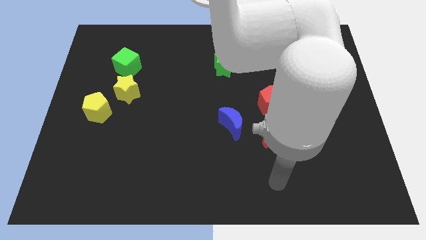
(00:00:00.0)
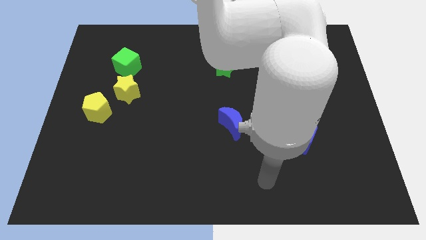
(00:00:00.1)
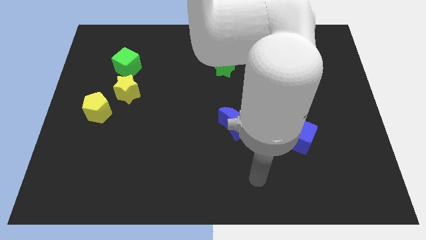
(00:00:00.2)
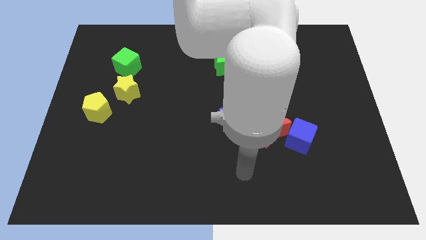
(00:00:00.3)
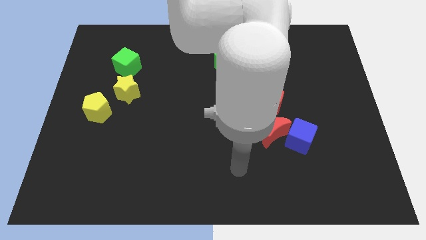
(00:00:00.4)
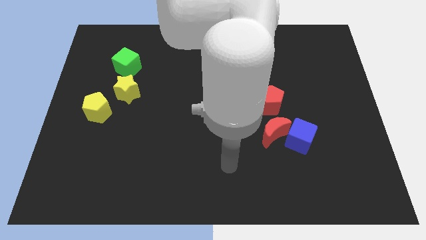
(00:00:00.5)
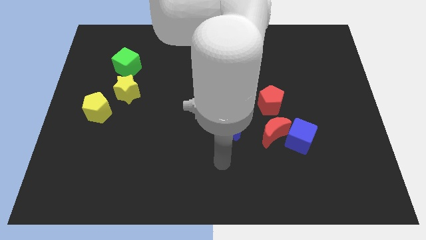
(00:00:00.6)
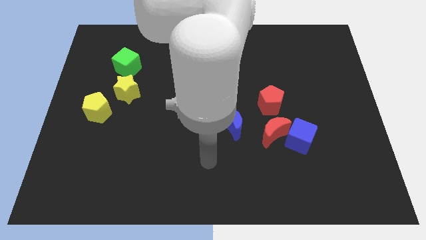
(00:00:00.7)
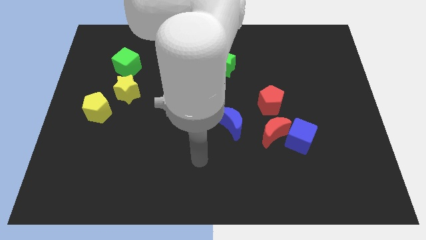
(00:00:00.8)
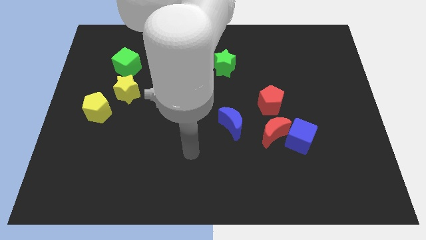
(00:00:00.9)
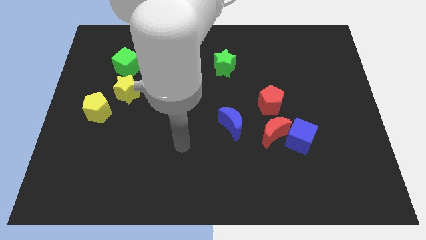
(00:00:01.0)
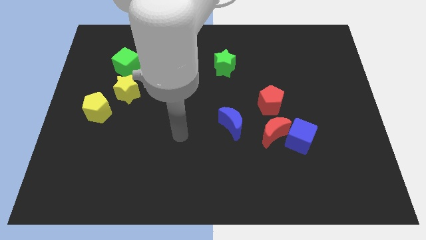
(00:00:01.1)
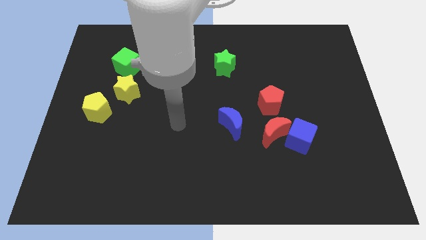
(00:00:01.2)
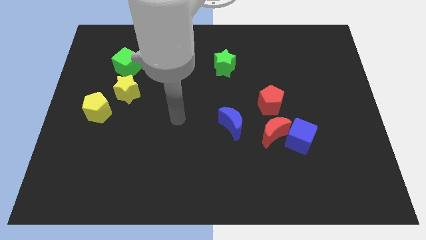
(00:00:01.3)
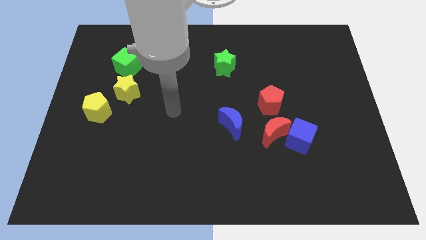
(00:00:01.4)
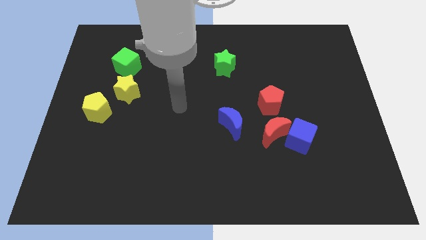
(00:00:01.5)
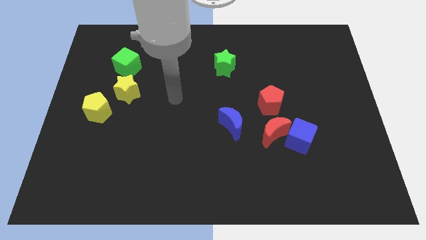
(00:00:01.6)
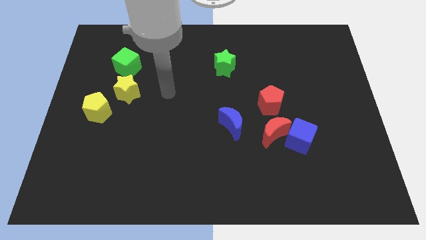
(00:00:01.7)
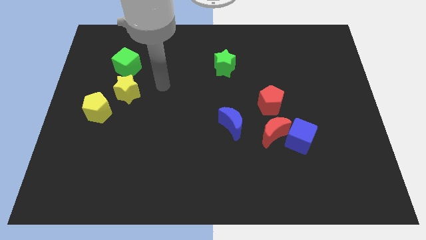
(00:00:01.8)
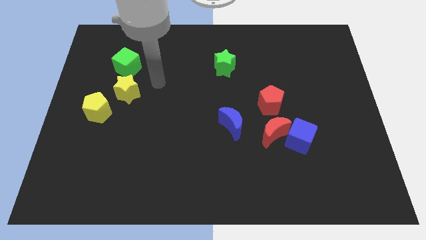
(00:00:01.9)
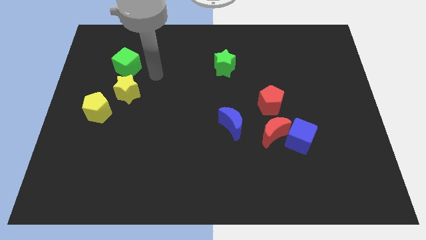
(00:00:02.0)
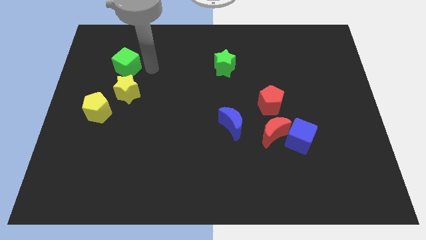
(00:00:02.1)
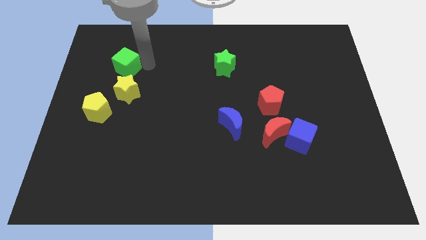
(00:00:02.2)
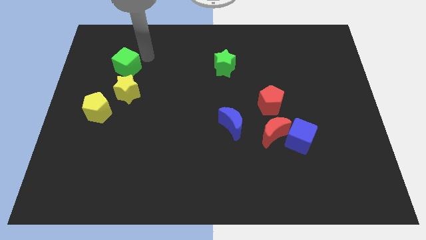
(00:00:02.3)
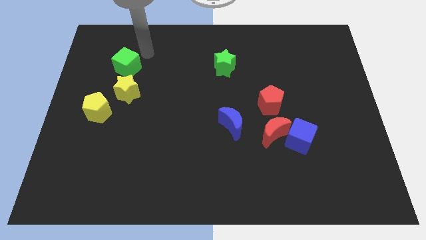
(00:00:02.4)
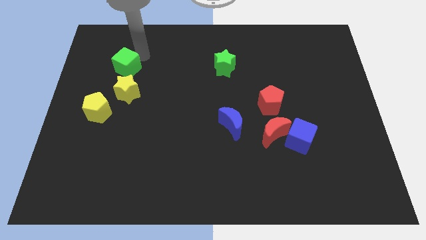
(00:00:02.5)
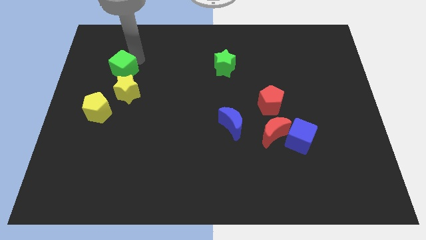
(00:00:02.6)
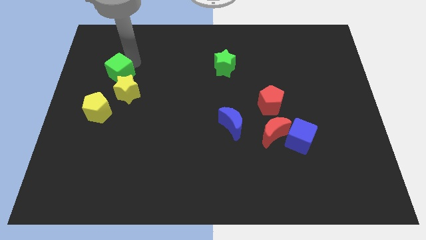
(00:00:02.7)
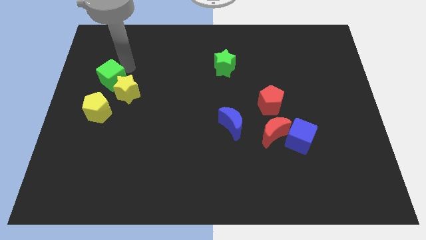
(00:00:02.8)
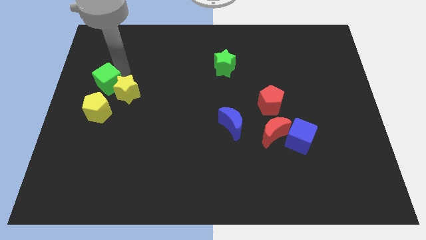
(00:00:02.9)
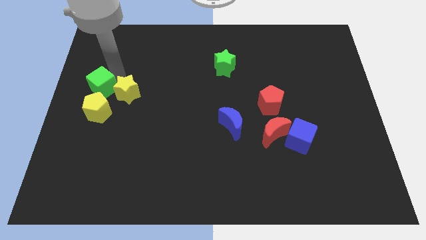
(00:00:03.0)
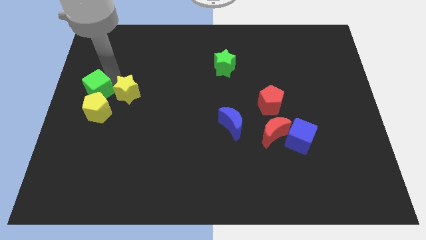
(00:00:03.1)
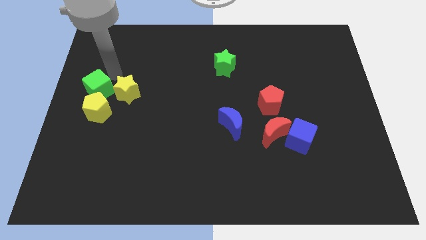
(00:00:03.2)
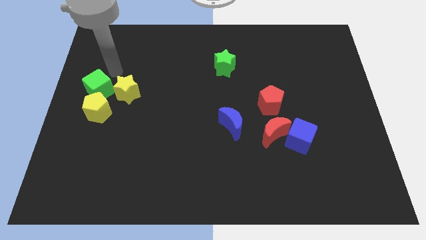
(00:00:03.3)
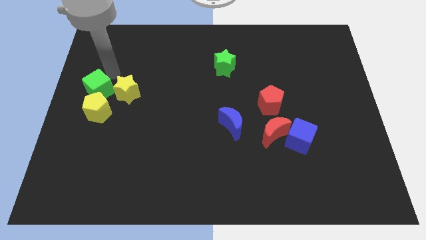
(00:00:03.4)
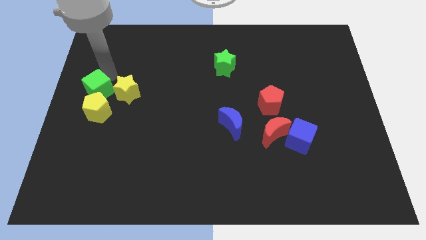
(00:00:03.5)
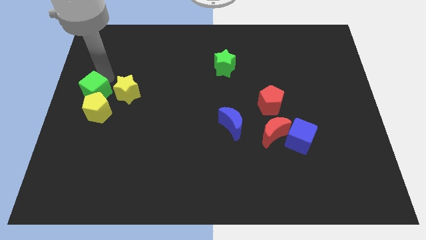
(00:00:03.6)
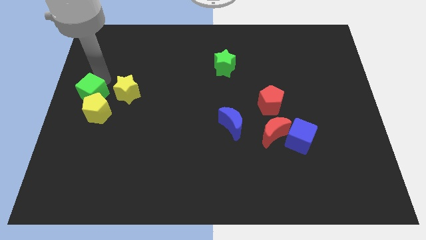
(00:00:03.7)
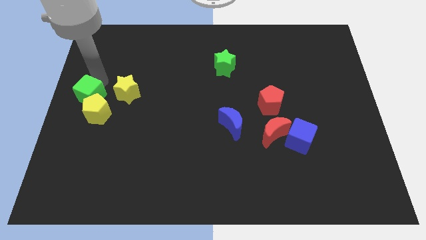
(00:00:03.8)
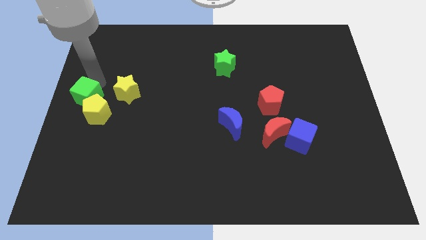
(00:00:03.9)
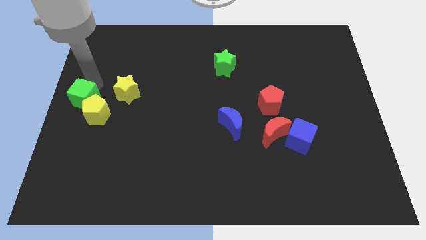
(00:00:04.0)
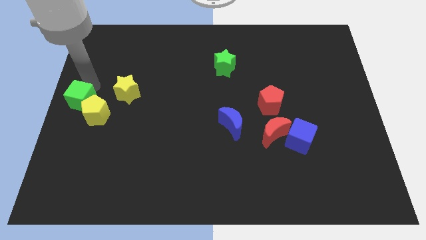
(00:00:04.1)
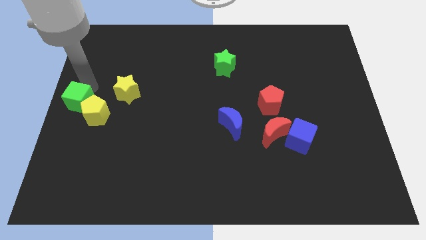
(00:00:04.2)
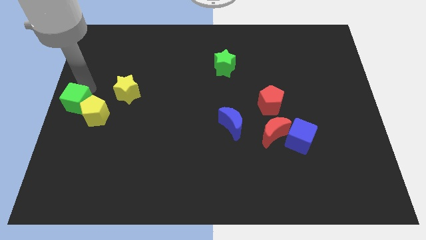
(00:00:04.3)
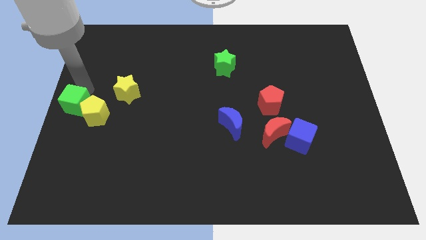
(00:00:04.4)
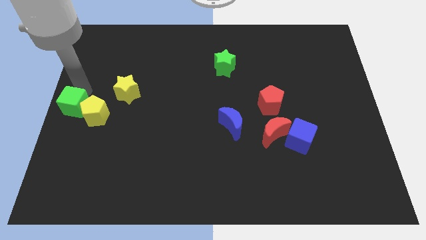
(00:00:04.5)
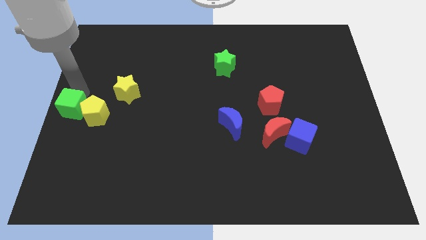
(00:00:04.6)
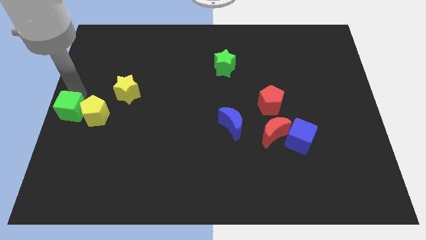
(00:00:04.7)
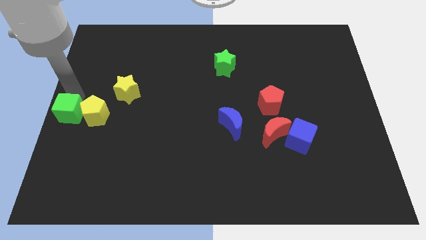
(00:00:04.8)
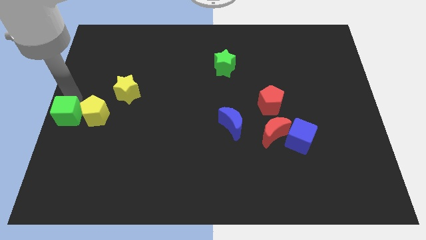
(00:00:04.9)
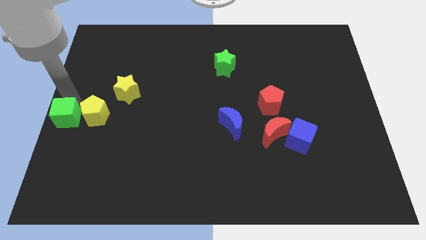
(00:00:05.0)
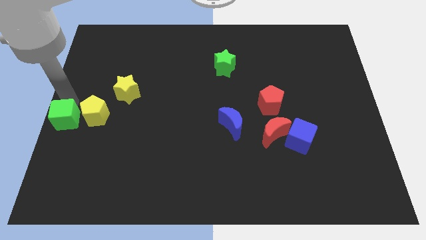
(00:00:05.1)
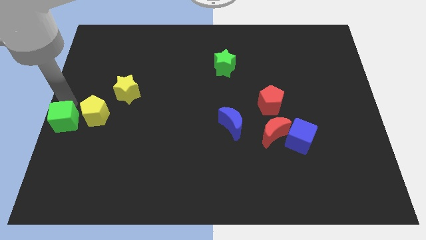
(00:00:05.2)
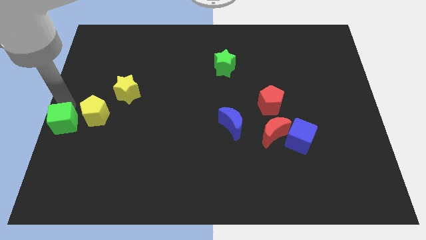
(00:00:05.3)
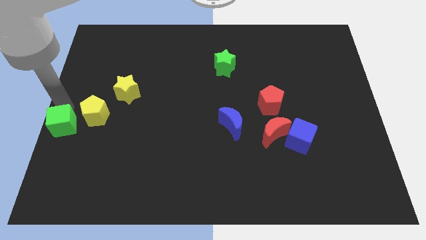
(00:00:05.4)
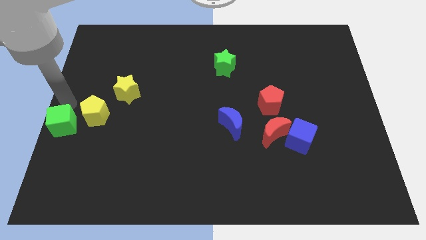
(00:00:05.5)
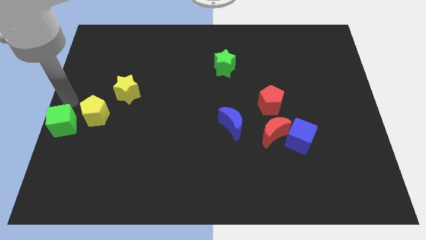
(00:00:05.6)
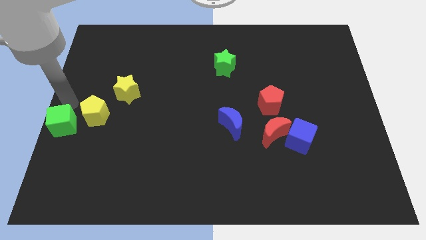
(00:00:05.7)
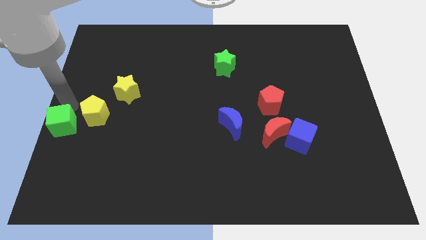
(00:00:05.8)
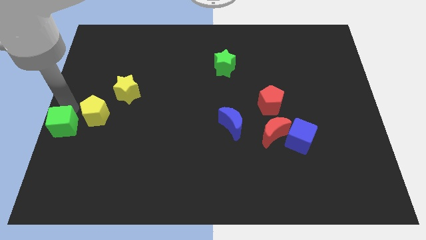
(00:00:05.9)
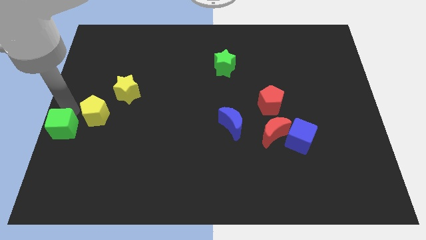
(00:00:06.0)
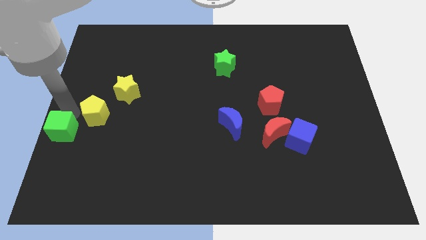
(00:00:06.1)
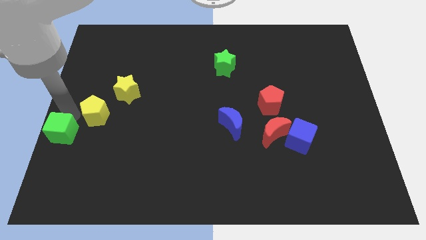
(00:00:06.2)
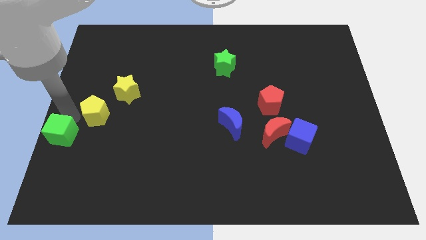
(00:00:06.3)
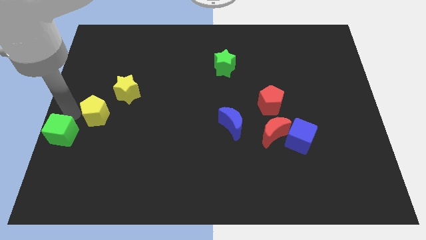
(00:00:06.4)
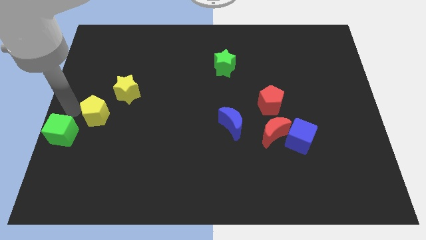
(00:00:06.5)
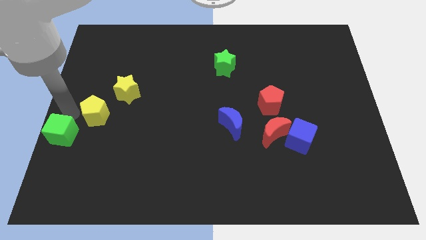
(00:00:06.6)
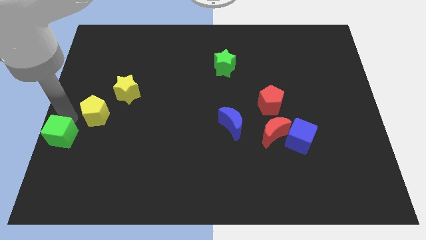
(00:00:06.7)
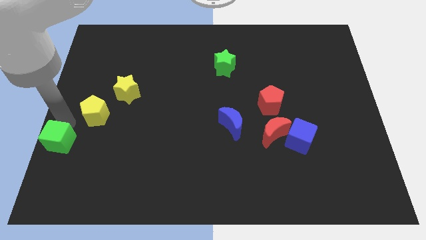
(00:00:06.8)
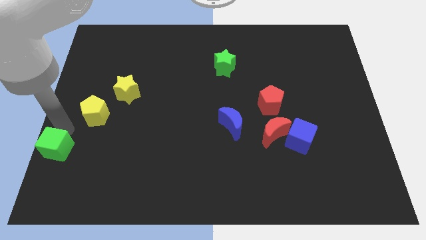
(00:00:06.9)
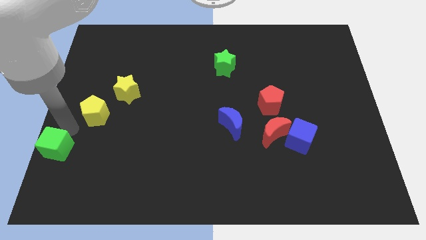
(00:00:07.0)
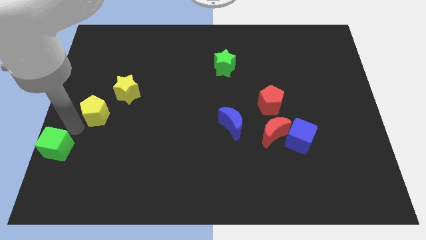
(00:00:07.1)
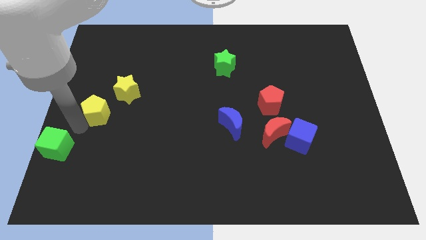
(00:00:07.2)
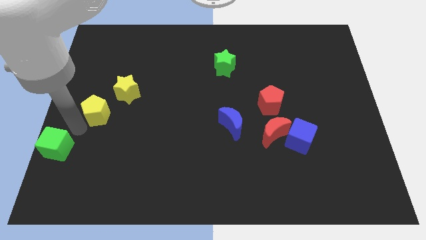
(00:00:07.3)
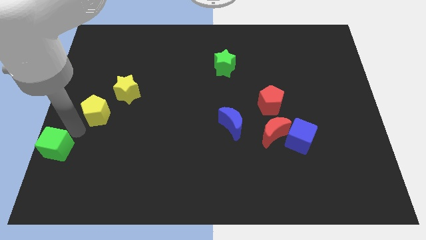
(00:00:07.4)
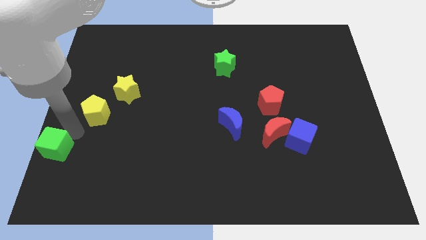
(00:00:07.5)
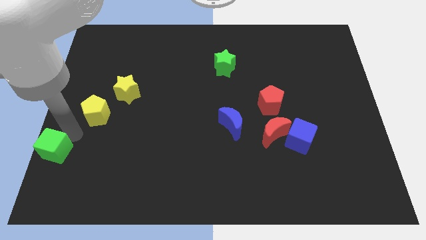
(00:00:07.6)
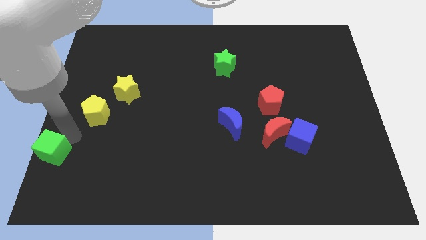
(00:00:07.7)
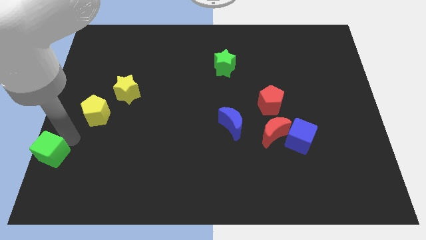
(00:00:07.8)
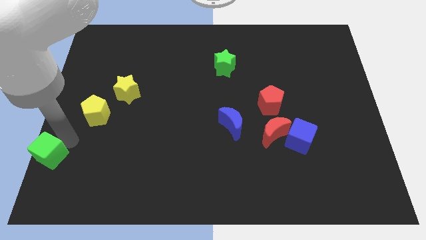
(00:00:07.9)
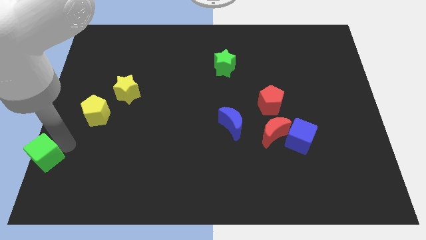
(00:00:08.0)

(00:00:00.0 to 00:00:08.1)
put the green cube to the bottom left corner
